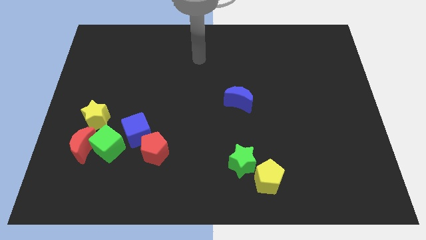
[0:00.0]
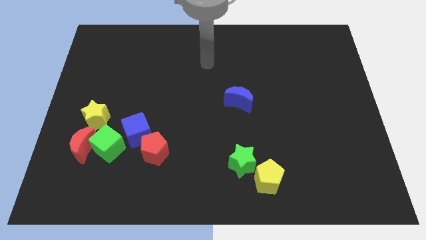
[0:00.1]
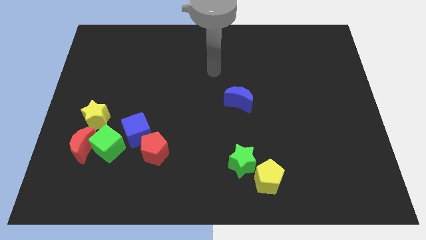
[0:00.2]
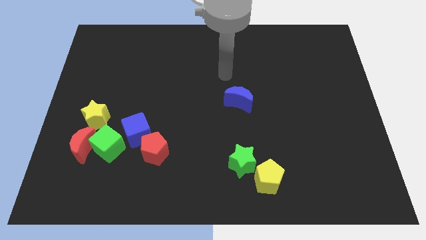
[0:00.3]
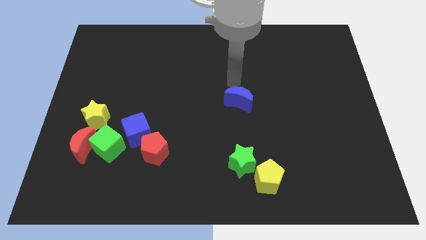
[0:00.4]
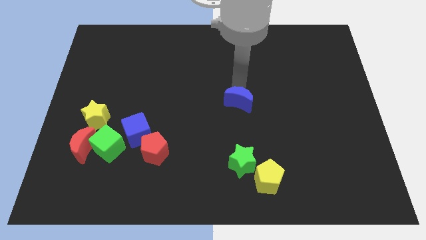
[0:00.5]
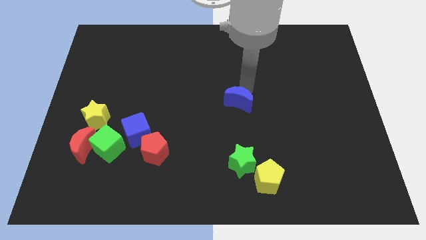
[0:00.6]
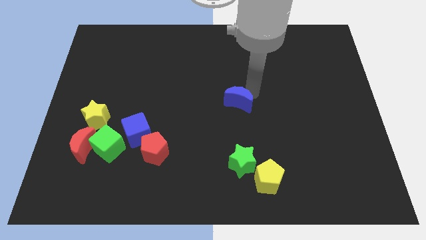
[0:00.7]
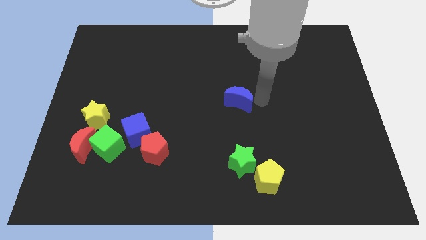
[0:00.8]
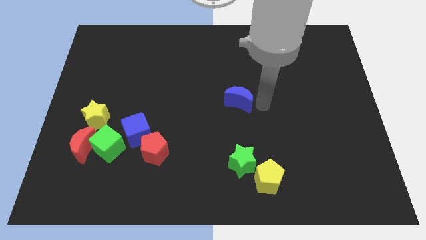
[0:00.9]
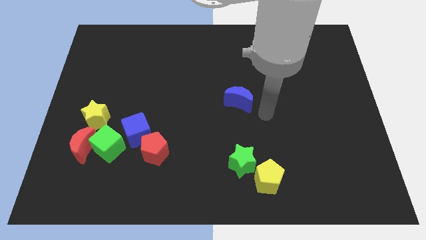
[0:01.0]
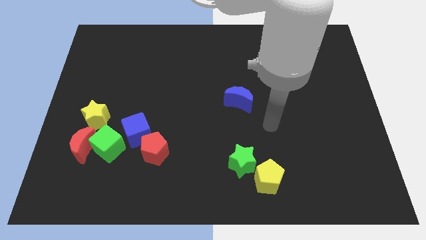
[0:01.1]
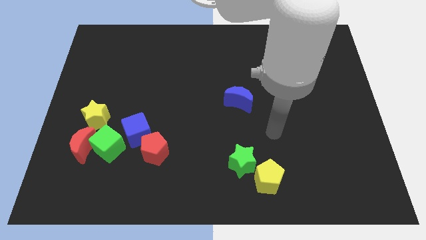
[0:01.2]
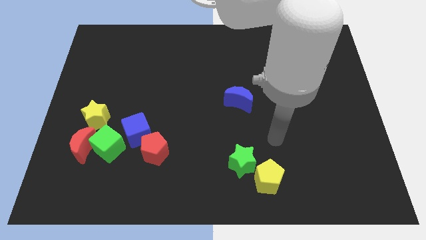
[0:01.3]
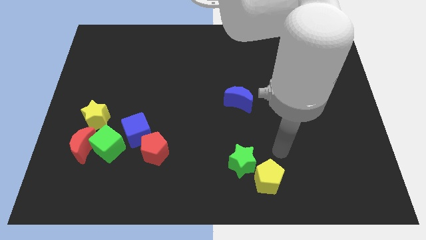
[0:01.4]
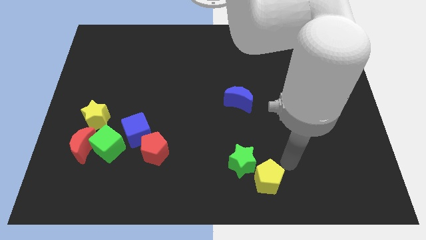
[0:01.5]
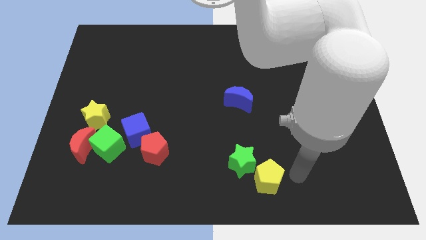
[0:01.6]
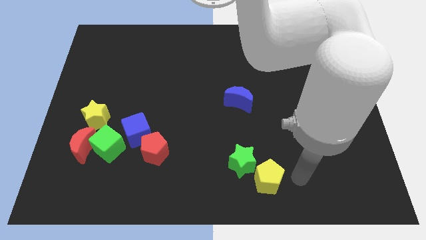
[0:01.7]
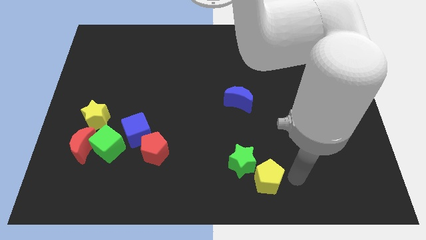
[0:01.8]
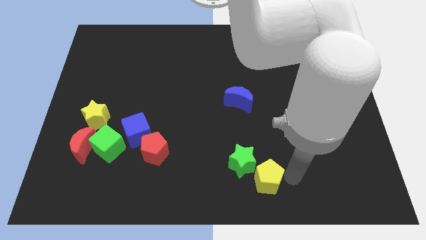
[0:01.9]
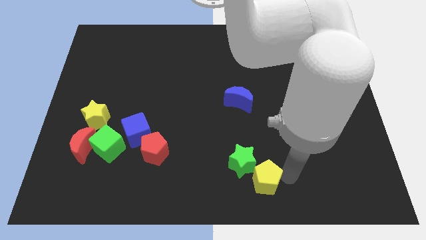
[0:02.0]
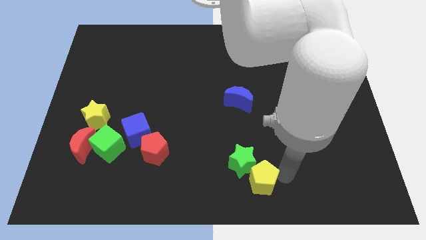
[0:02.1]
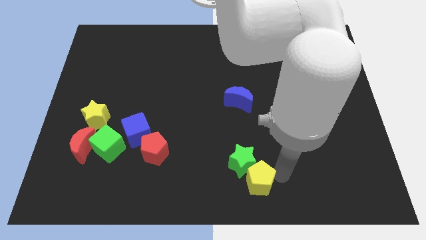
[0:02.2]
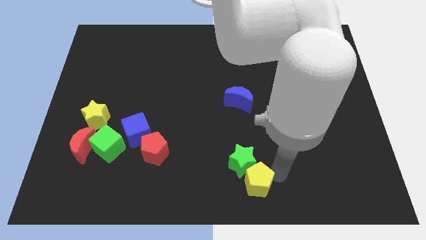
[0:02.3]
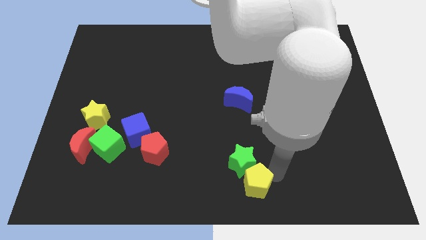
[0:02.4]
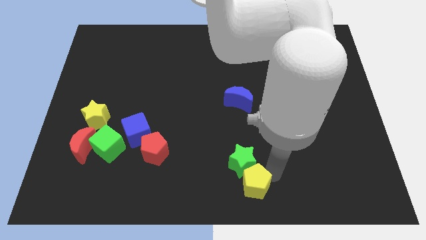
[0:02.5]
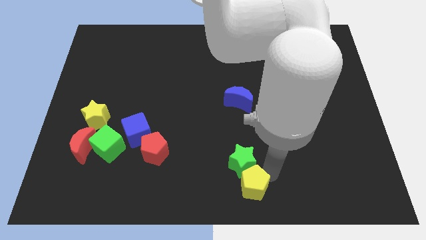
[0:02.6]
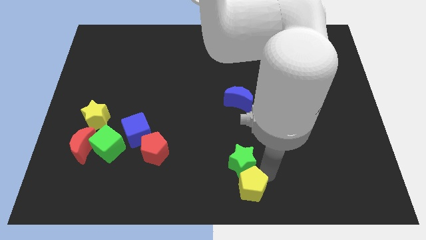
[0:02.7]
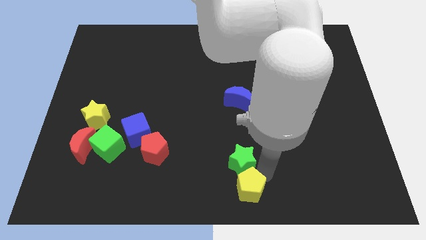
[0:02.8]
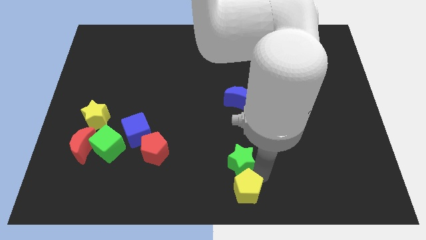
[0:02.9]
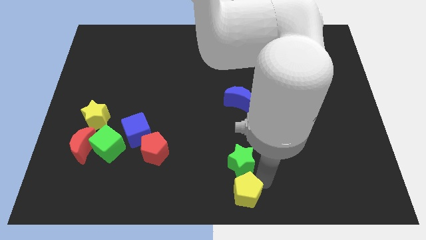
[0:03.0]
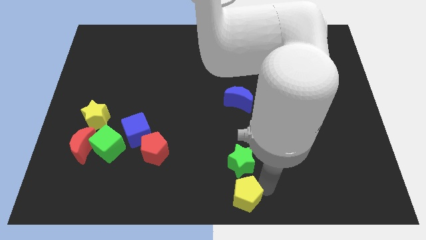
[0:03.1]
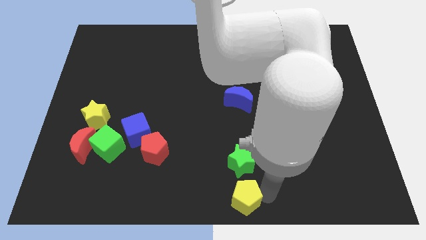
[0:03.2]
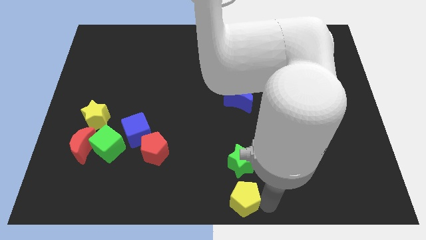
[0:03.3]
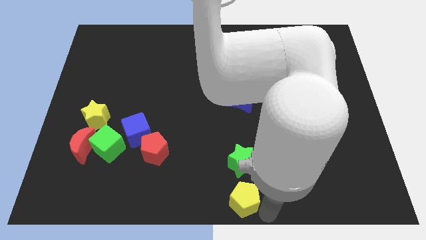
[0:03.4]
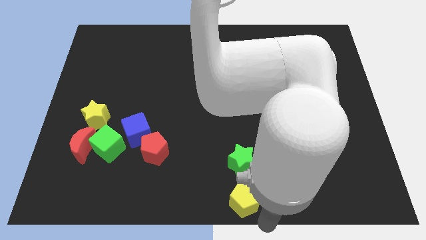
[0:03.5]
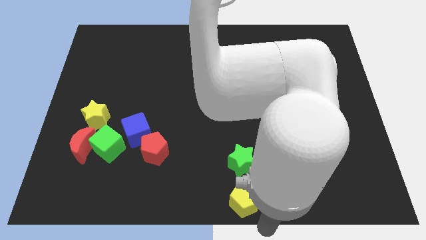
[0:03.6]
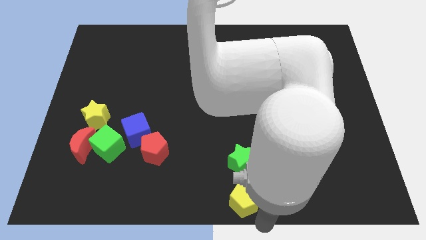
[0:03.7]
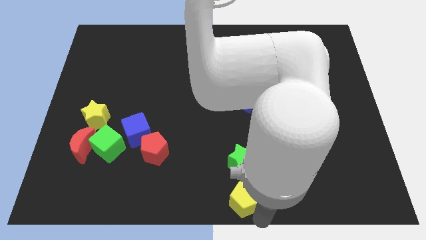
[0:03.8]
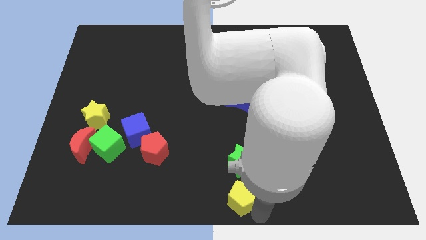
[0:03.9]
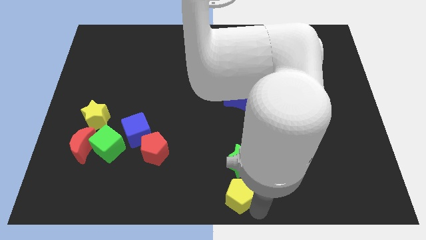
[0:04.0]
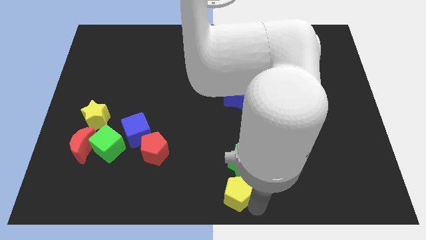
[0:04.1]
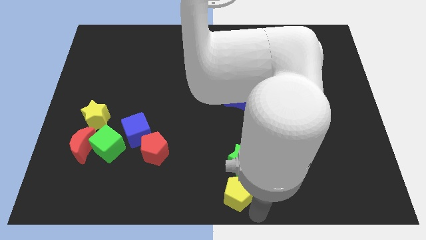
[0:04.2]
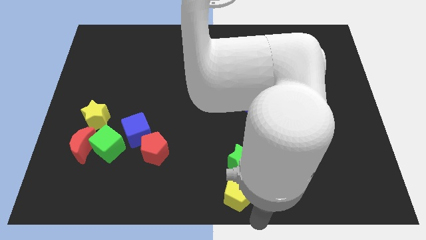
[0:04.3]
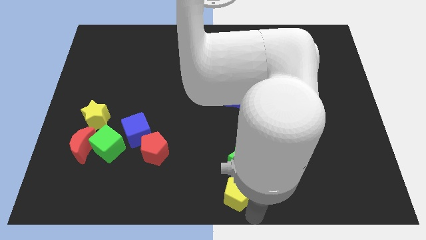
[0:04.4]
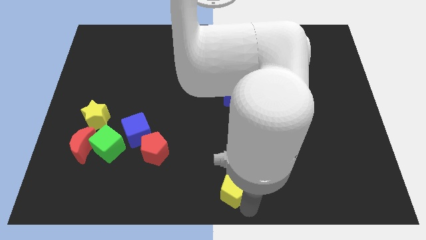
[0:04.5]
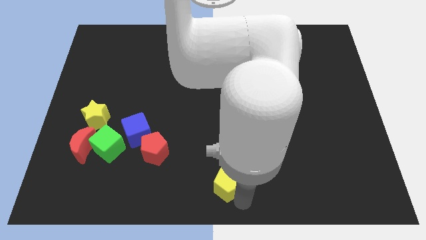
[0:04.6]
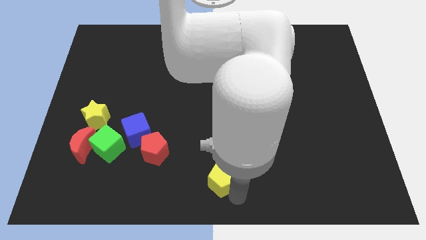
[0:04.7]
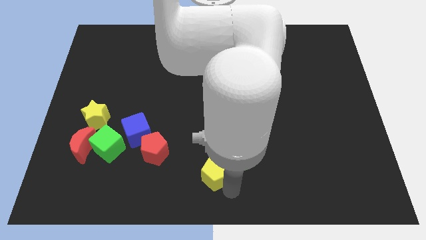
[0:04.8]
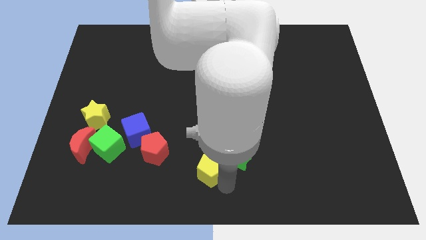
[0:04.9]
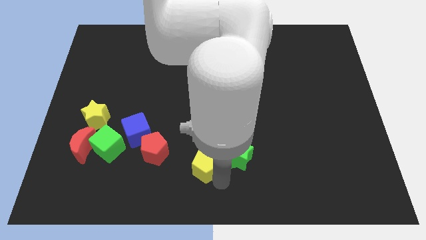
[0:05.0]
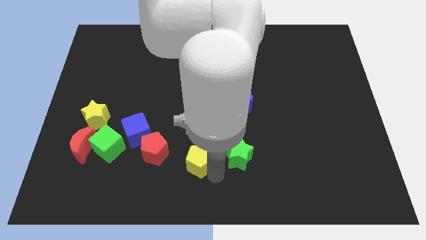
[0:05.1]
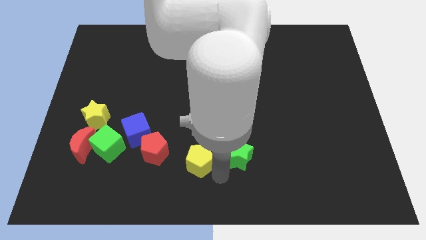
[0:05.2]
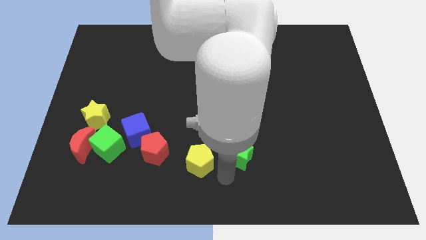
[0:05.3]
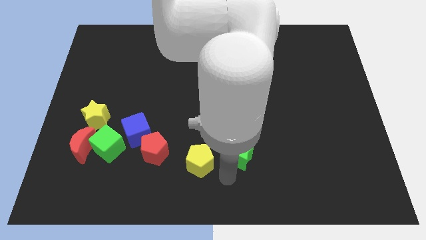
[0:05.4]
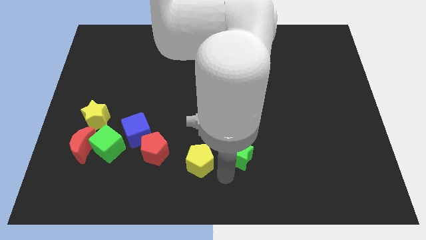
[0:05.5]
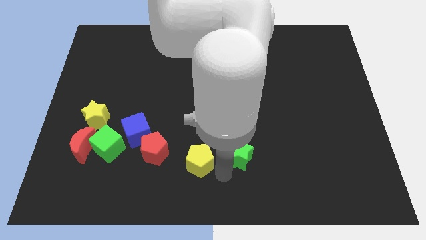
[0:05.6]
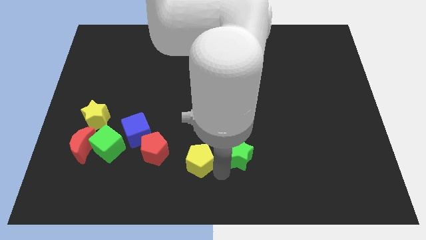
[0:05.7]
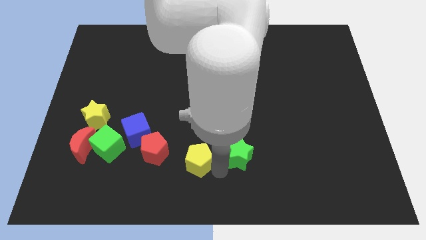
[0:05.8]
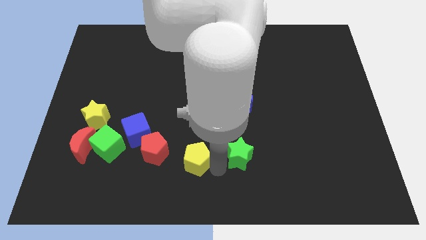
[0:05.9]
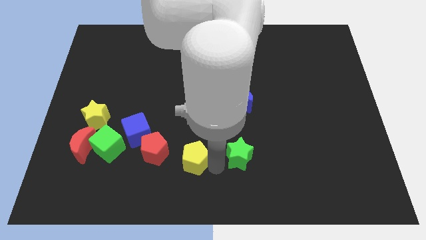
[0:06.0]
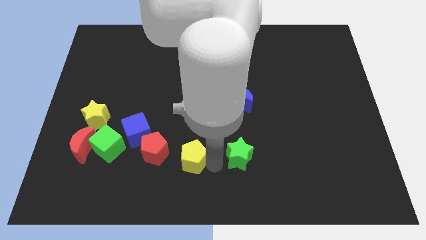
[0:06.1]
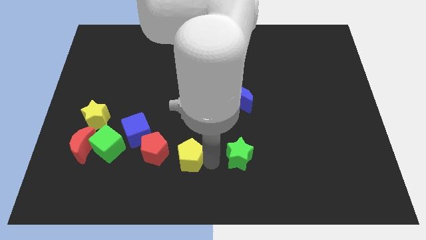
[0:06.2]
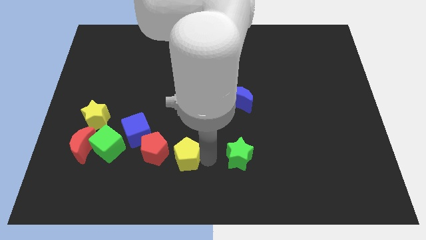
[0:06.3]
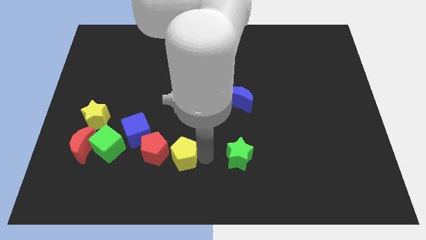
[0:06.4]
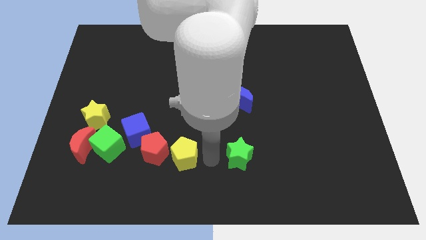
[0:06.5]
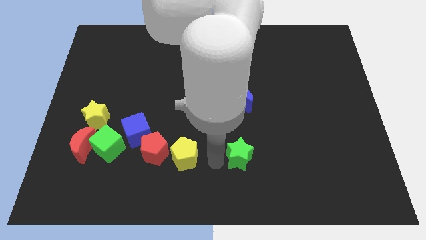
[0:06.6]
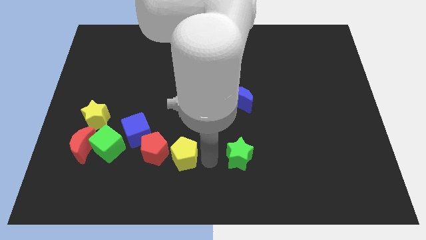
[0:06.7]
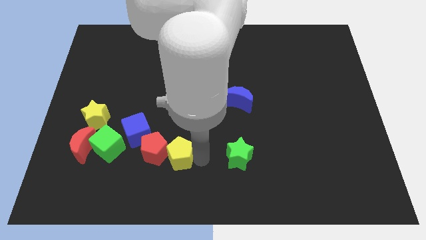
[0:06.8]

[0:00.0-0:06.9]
move the yellow pentagon next to the red pentagon
